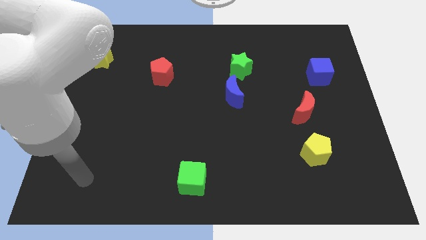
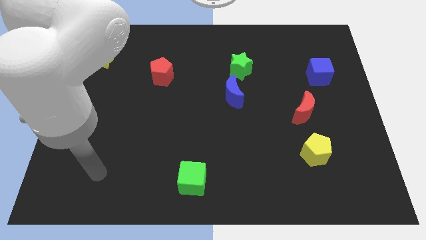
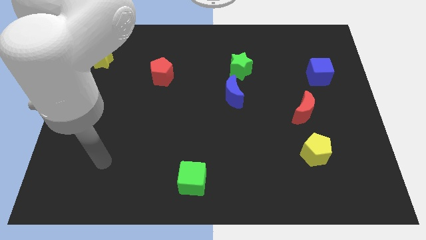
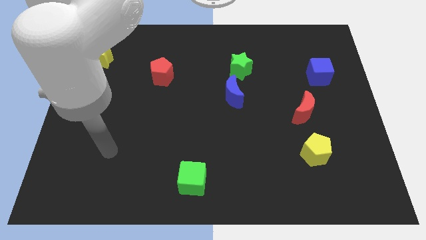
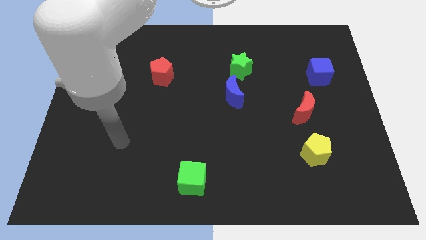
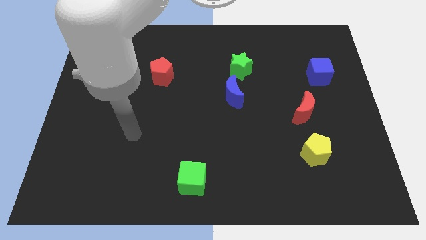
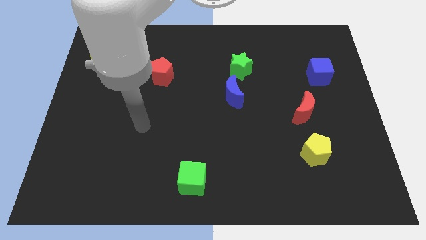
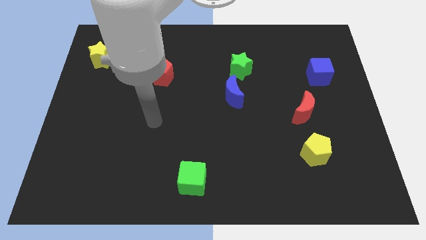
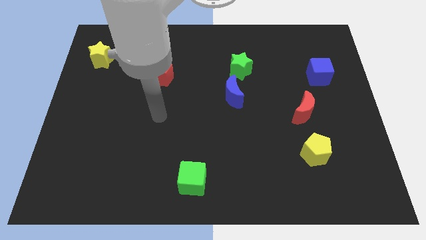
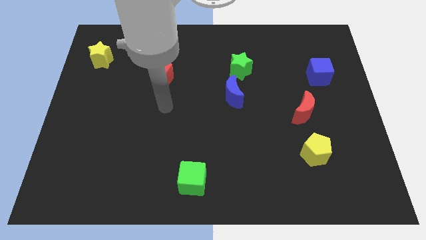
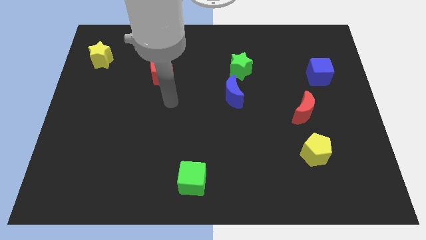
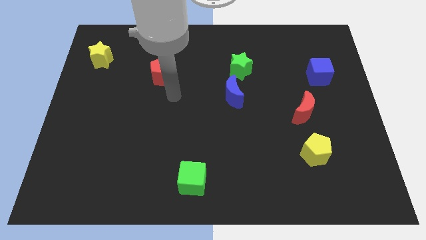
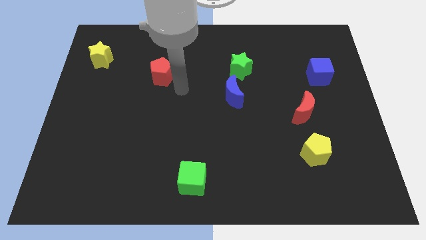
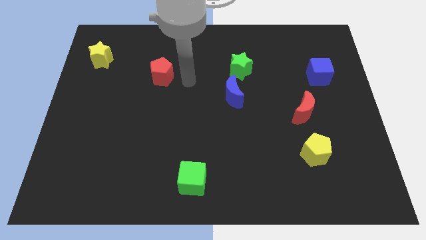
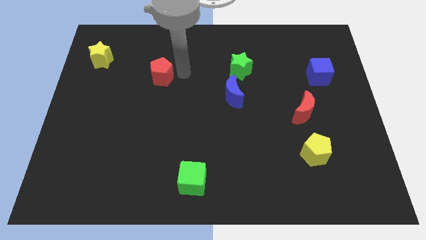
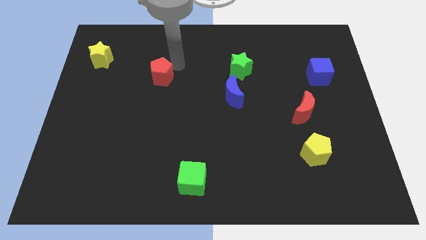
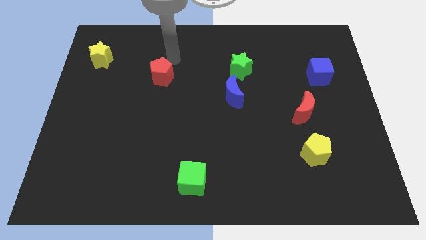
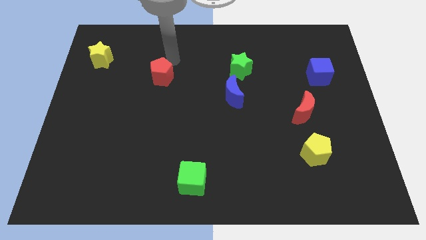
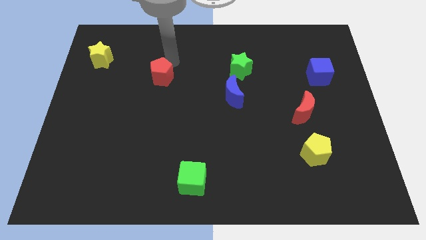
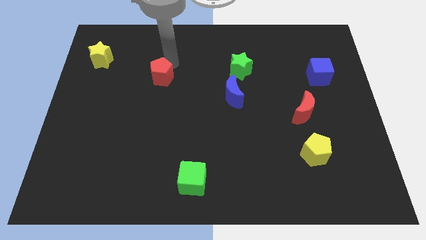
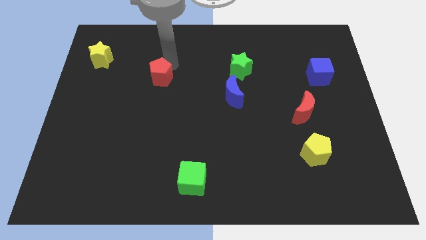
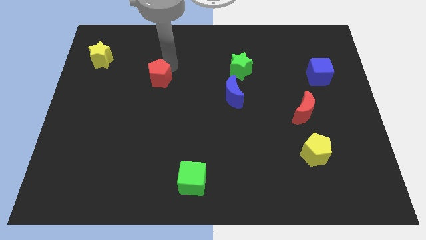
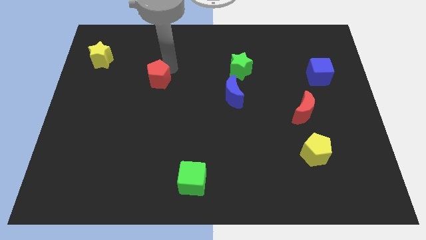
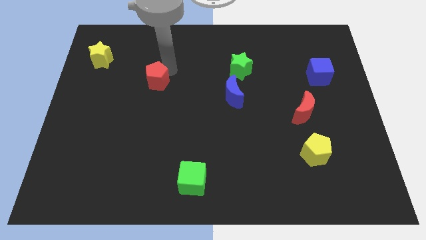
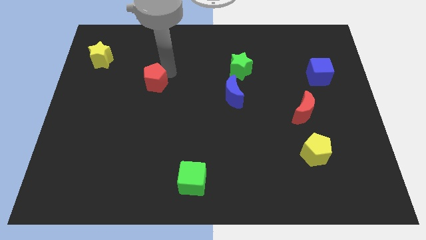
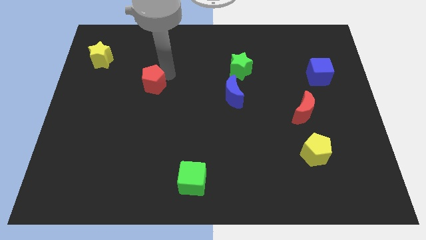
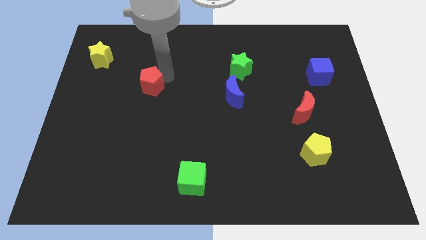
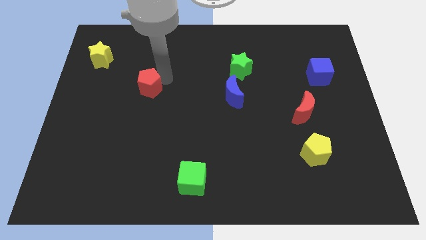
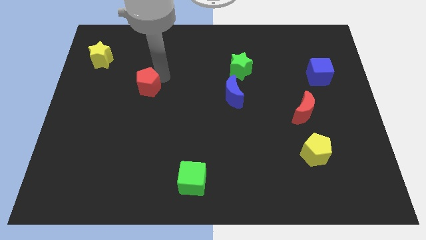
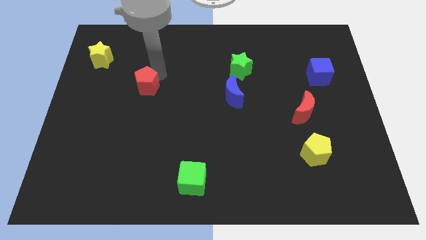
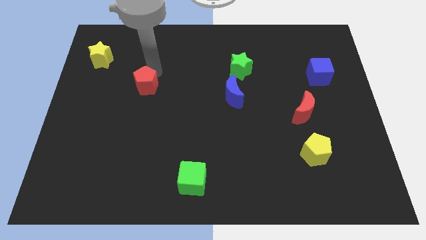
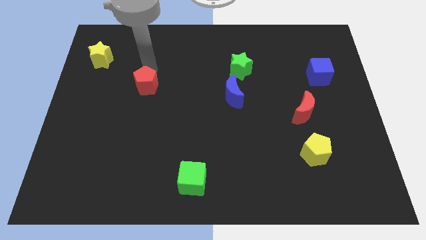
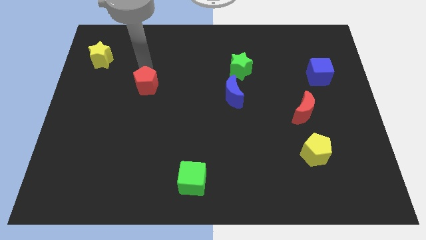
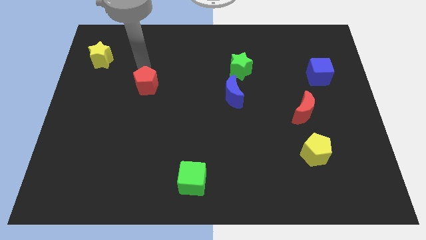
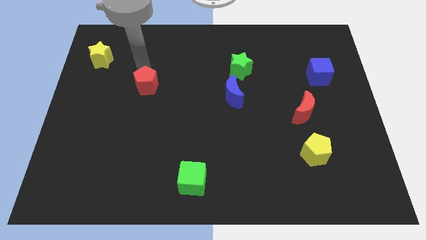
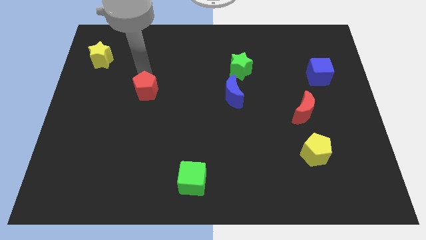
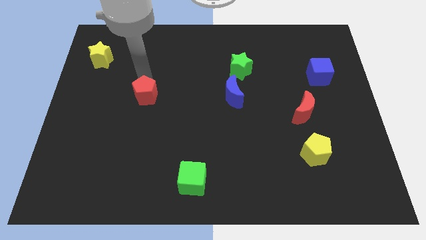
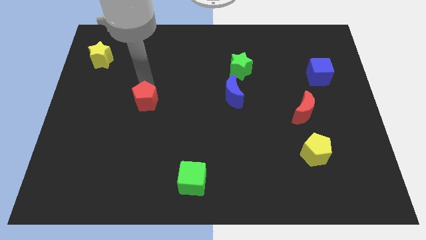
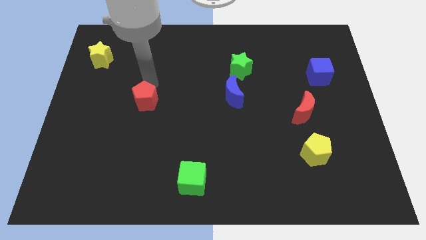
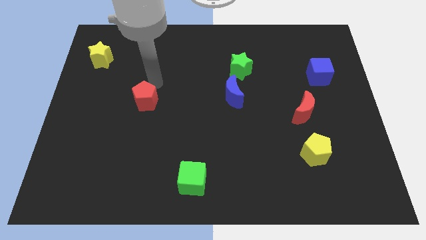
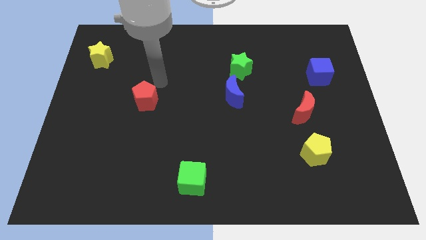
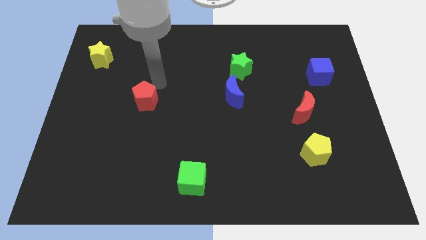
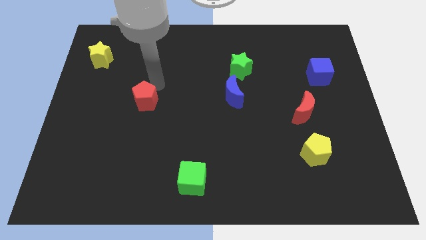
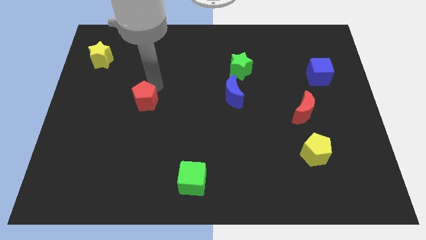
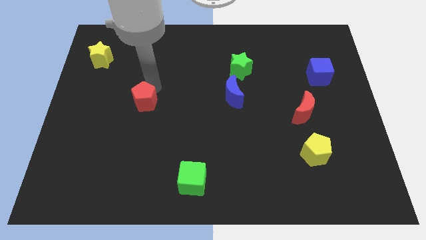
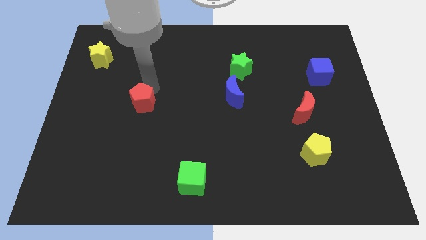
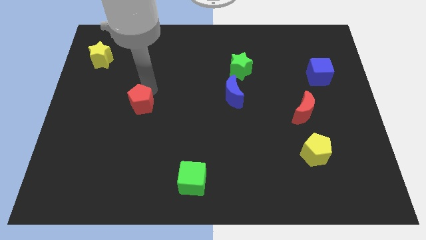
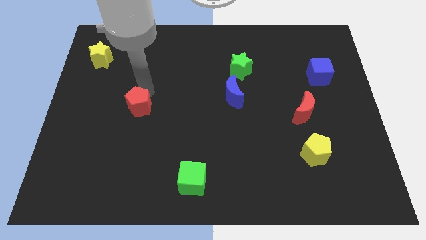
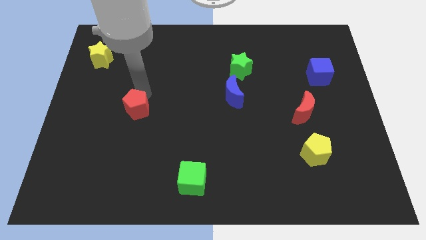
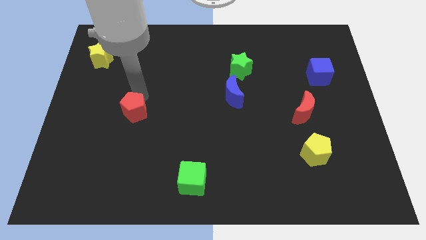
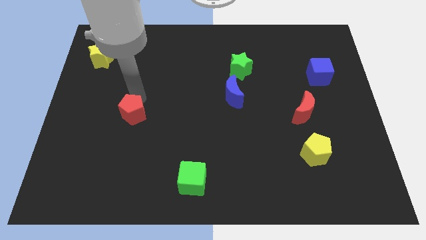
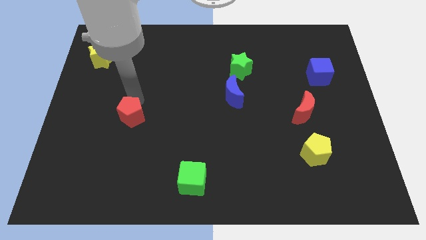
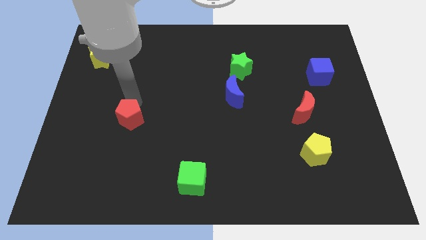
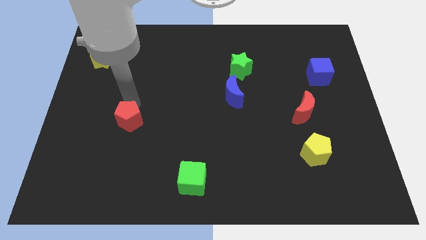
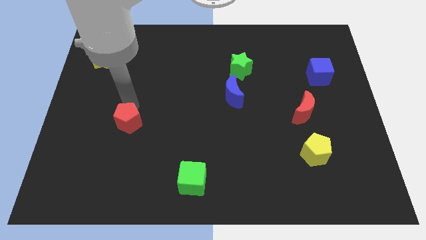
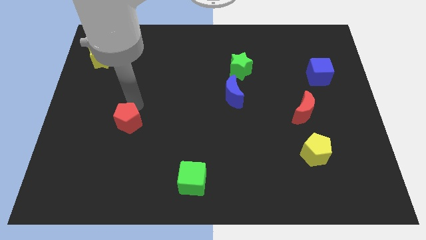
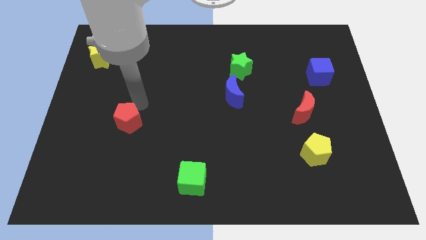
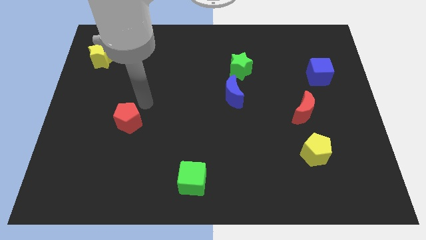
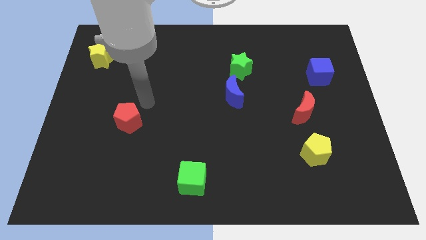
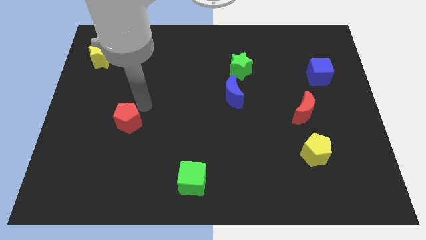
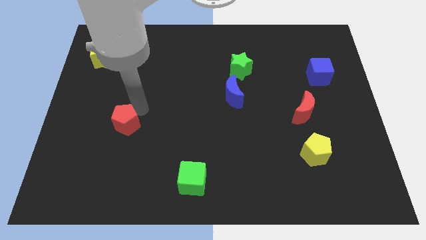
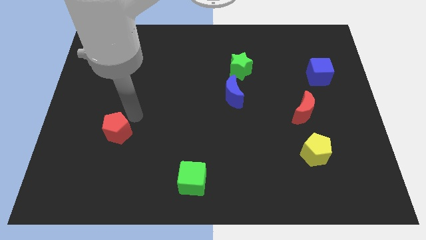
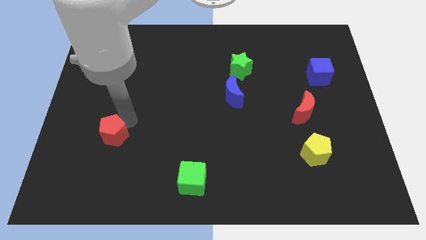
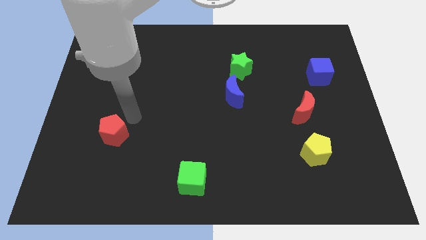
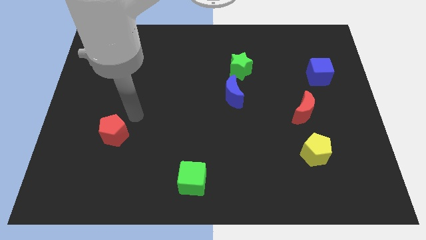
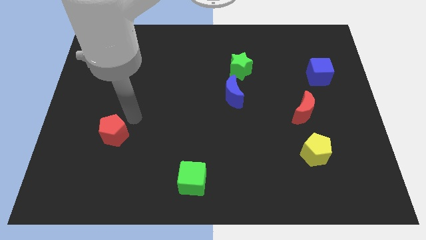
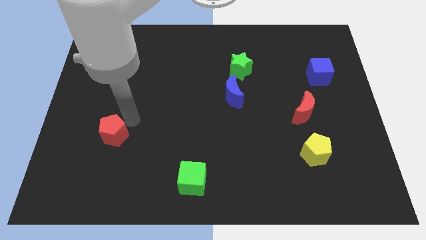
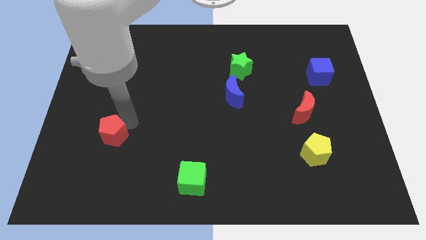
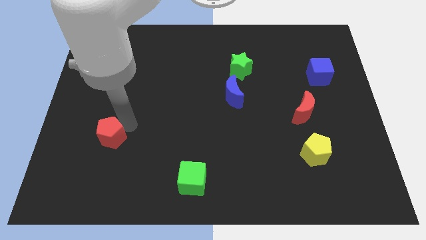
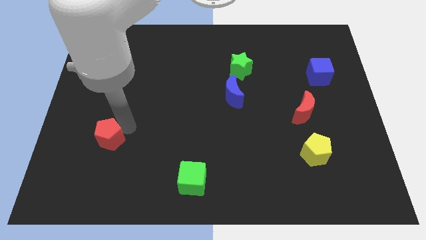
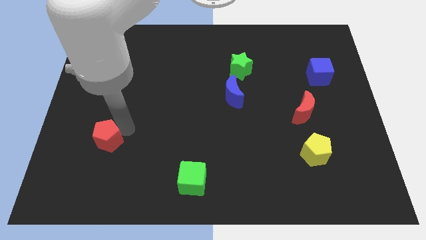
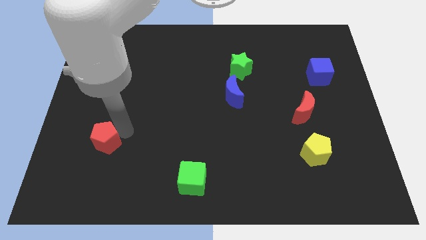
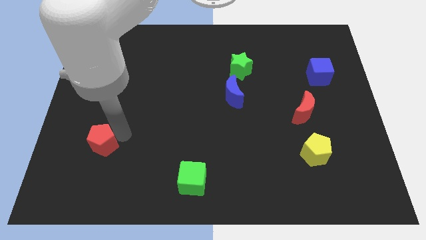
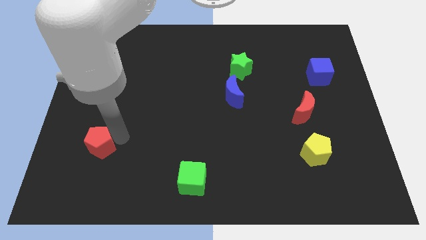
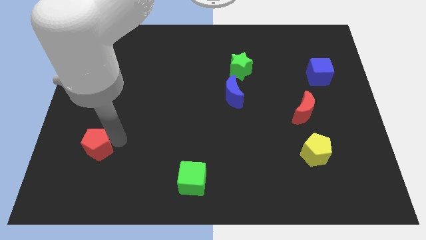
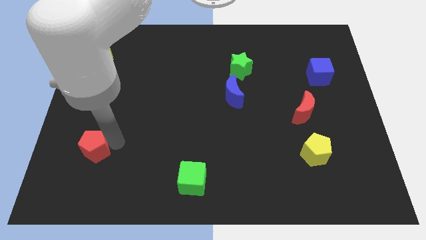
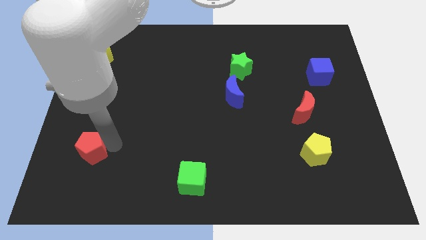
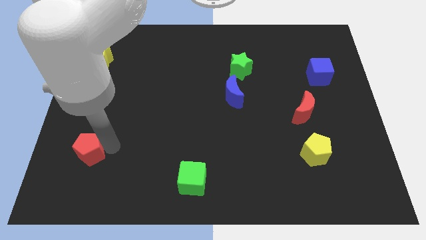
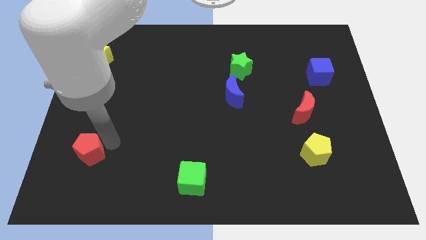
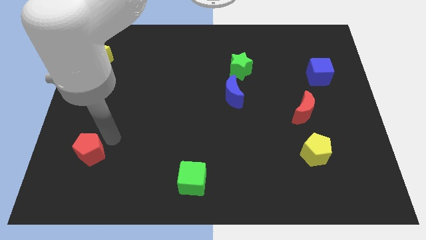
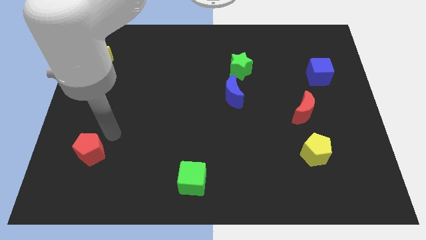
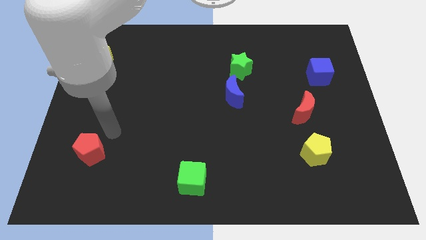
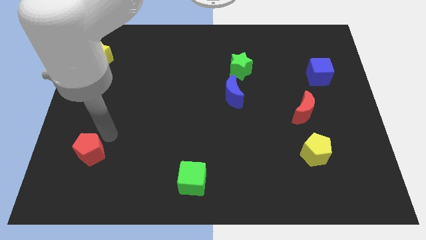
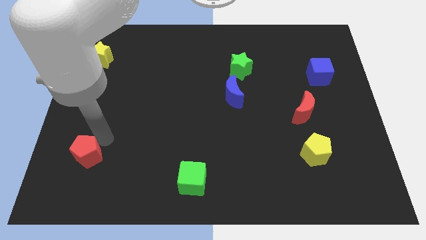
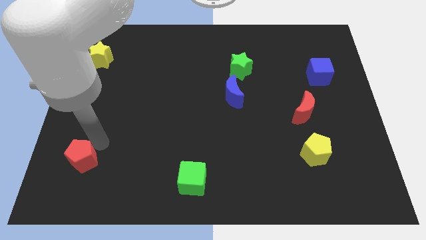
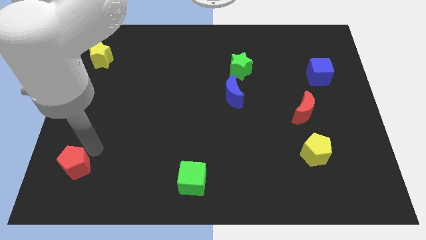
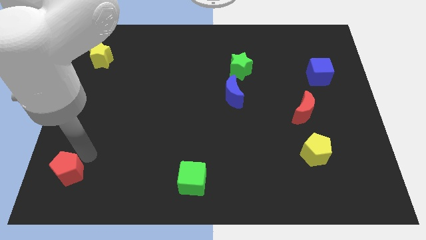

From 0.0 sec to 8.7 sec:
push the red pentagon to the bottom left
